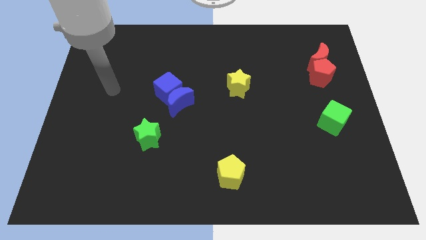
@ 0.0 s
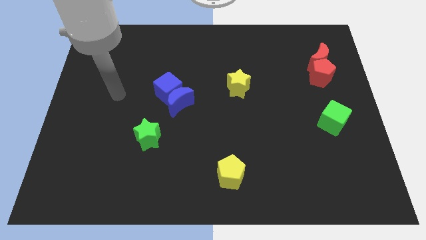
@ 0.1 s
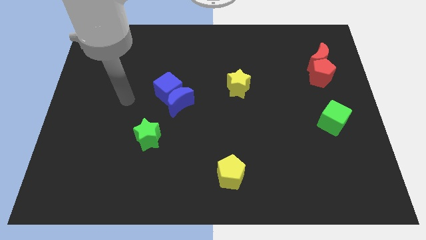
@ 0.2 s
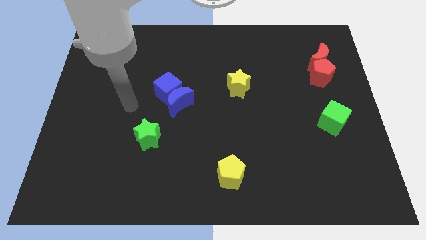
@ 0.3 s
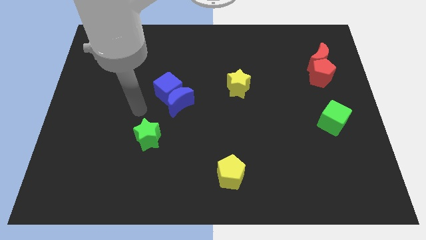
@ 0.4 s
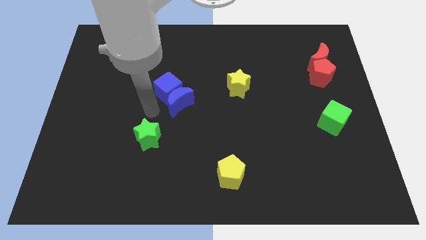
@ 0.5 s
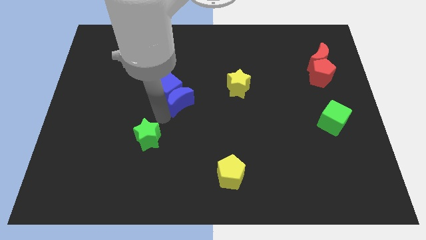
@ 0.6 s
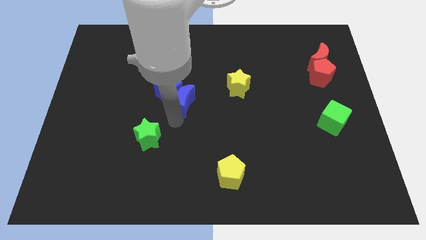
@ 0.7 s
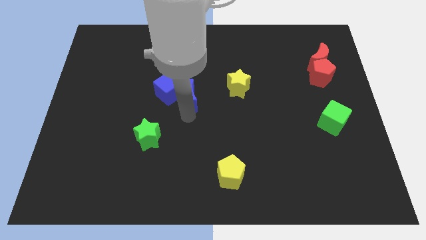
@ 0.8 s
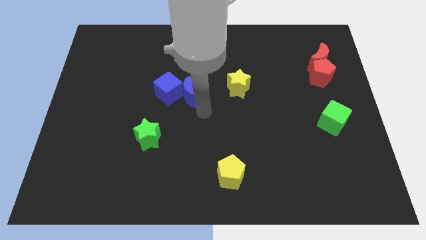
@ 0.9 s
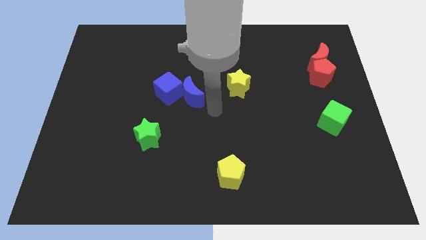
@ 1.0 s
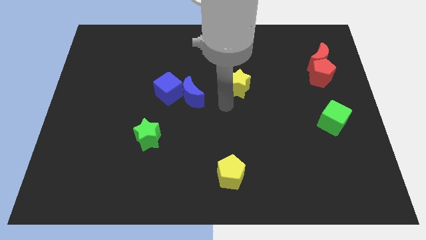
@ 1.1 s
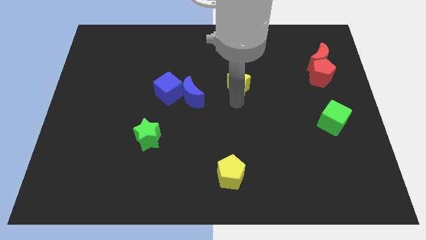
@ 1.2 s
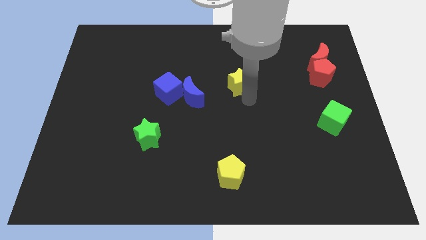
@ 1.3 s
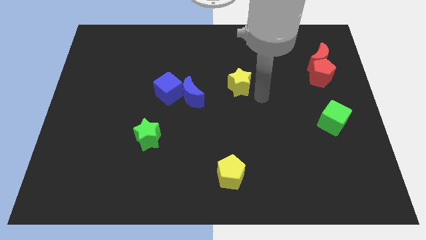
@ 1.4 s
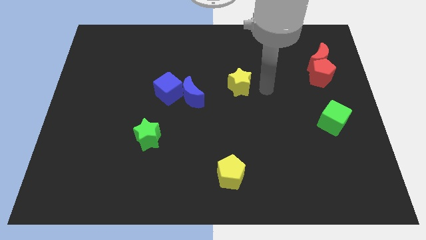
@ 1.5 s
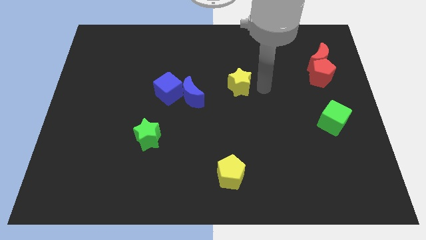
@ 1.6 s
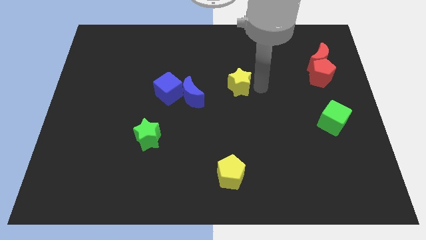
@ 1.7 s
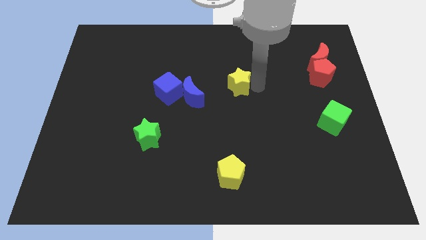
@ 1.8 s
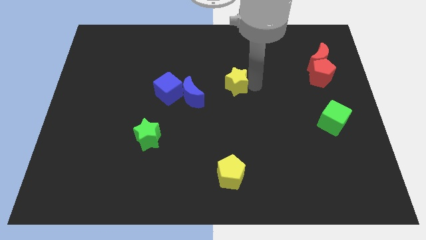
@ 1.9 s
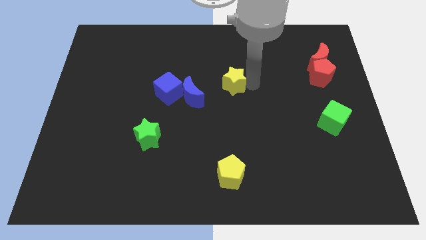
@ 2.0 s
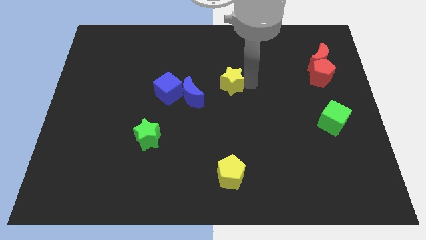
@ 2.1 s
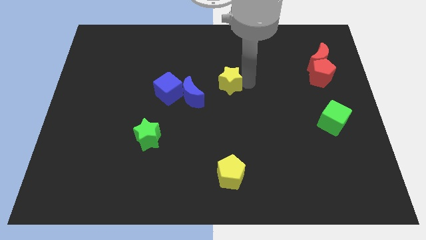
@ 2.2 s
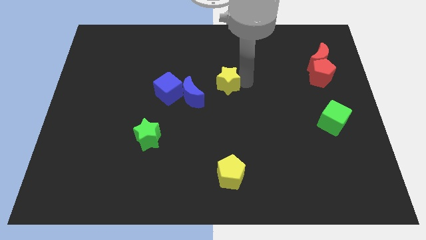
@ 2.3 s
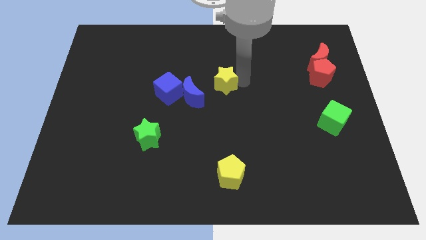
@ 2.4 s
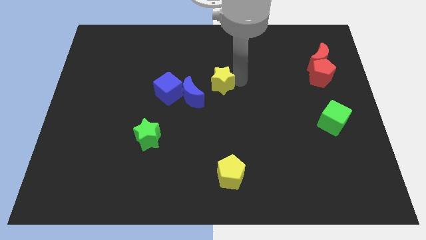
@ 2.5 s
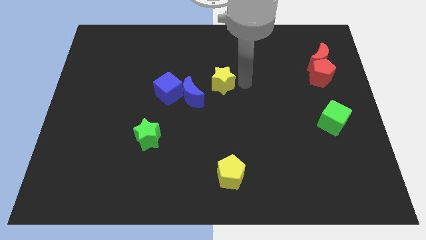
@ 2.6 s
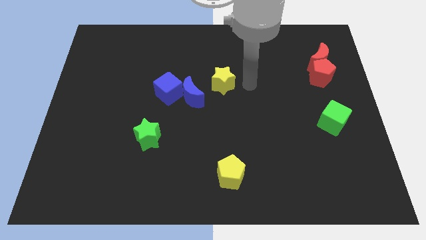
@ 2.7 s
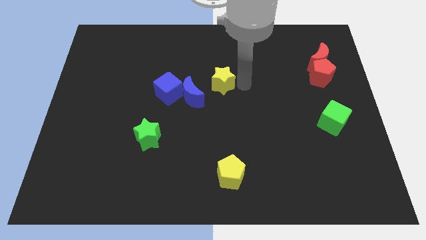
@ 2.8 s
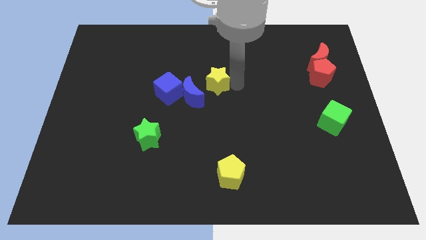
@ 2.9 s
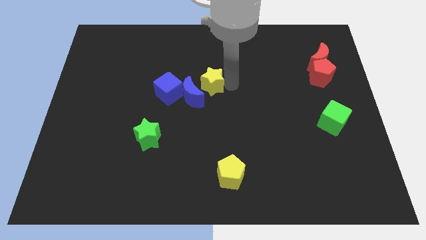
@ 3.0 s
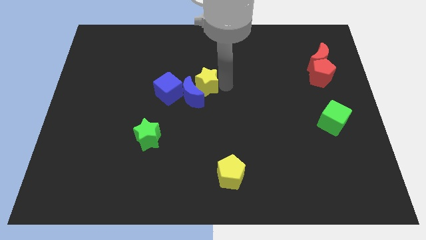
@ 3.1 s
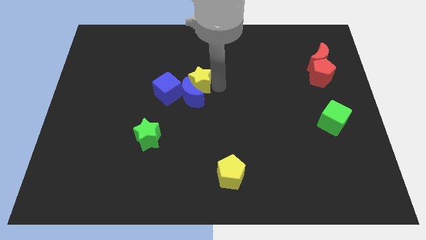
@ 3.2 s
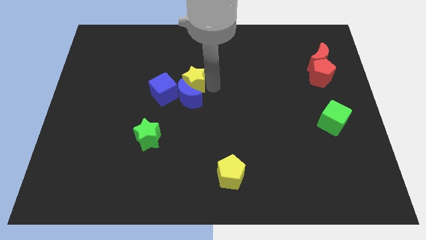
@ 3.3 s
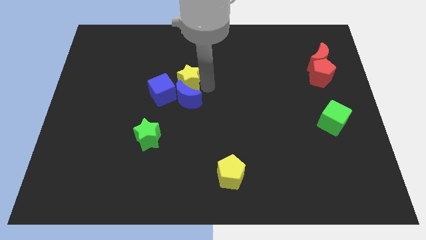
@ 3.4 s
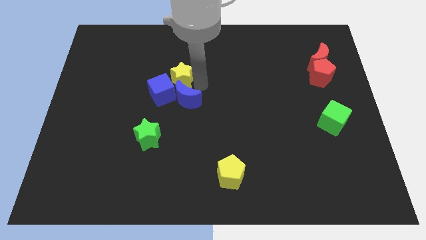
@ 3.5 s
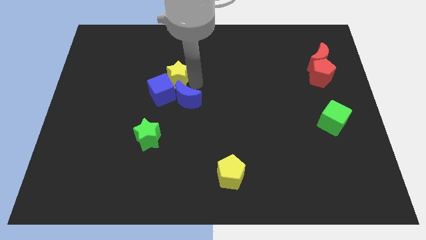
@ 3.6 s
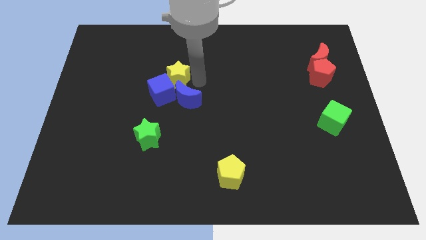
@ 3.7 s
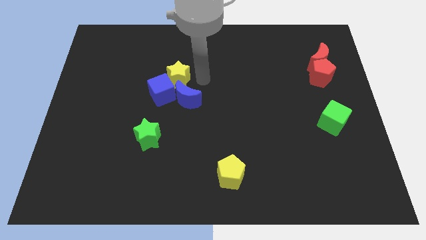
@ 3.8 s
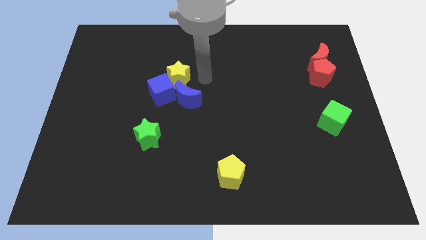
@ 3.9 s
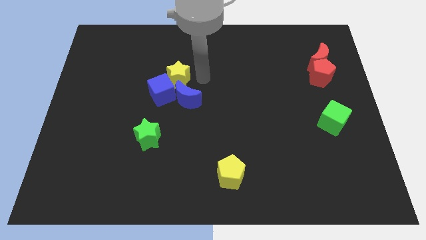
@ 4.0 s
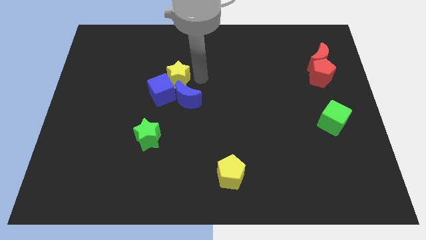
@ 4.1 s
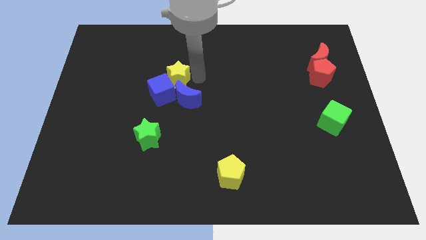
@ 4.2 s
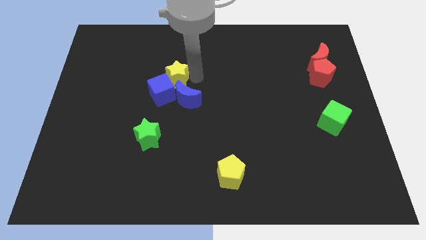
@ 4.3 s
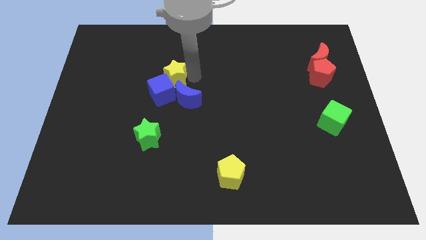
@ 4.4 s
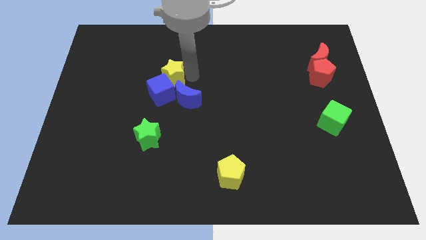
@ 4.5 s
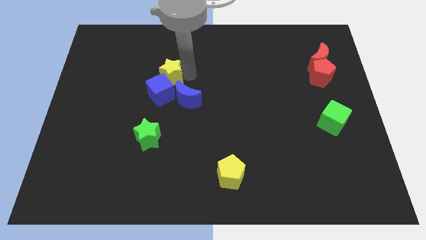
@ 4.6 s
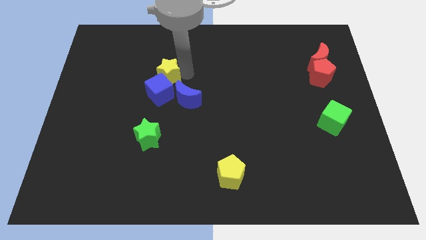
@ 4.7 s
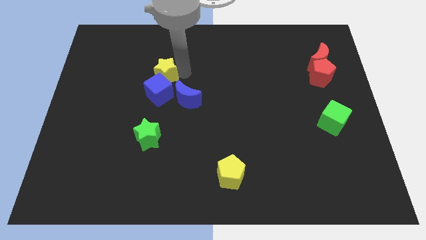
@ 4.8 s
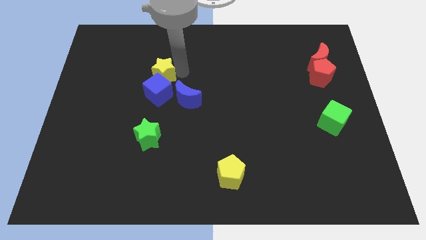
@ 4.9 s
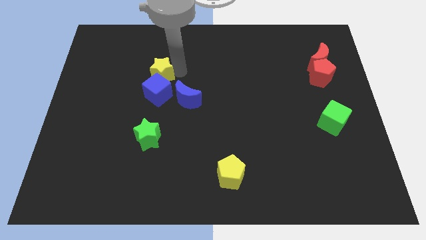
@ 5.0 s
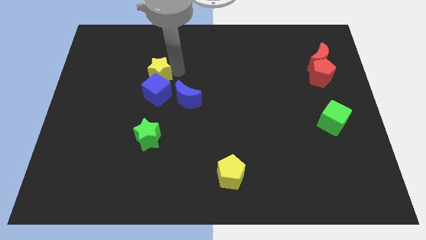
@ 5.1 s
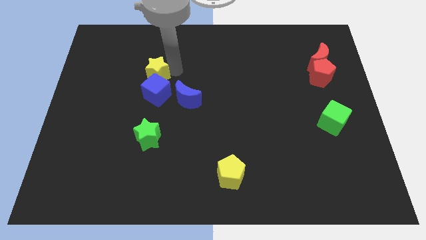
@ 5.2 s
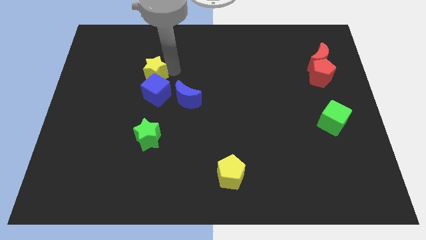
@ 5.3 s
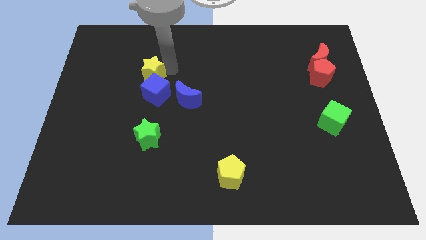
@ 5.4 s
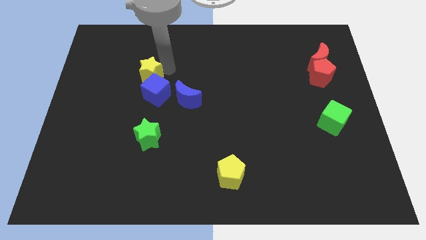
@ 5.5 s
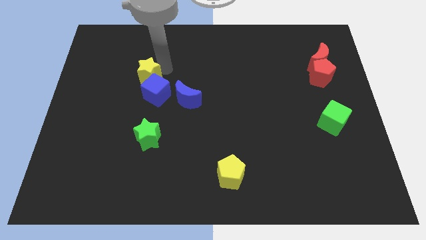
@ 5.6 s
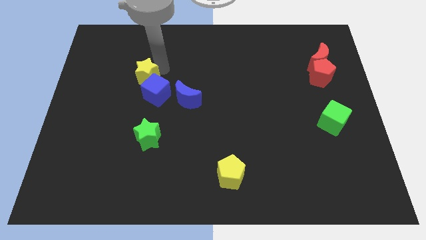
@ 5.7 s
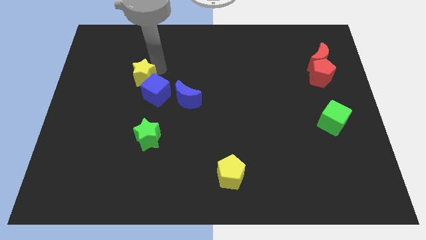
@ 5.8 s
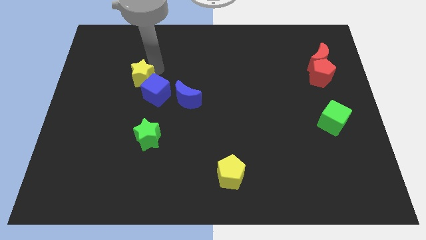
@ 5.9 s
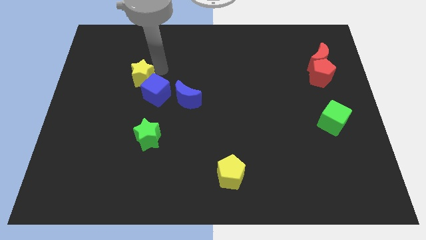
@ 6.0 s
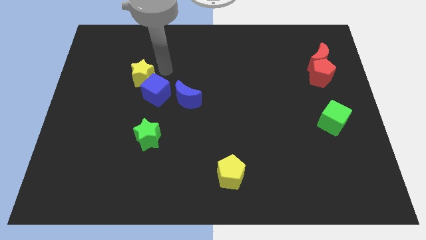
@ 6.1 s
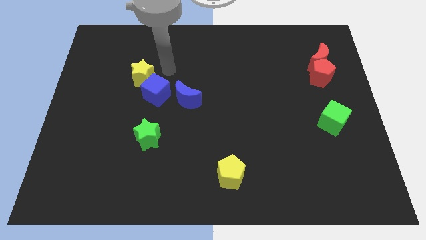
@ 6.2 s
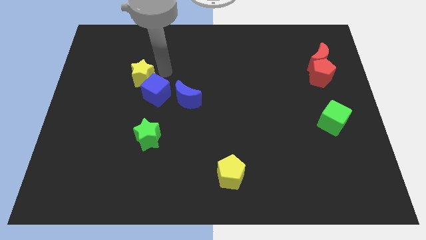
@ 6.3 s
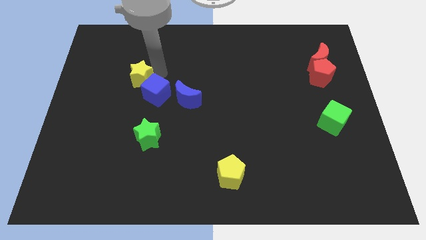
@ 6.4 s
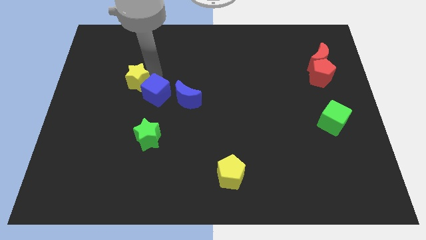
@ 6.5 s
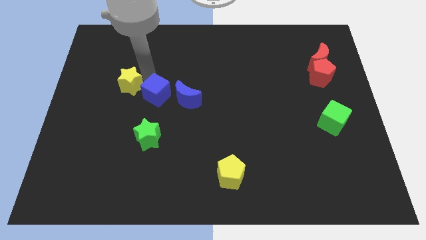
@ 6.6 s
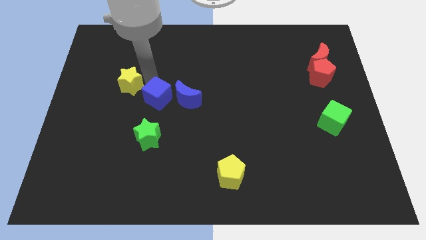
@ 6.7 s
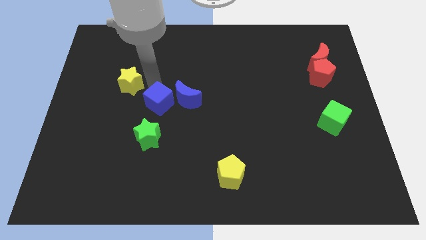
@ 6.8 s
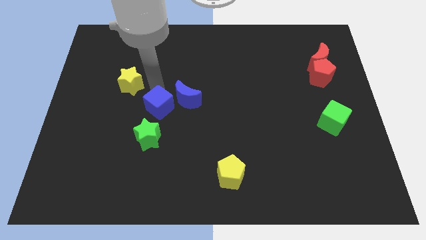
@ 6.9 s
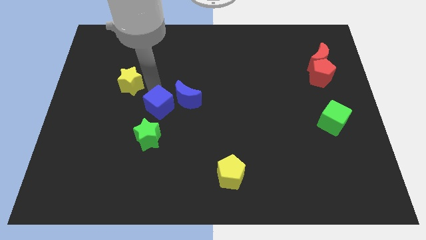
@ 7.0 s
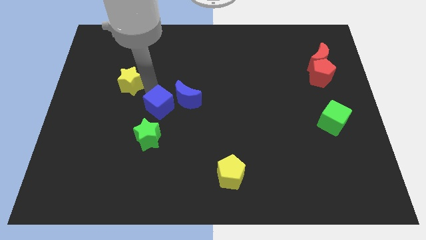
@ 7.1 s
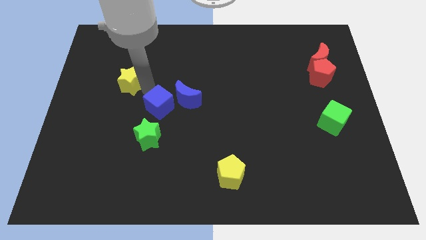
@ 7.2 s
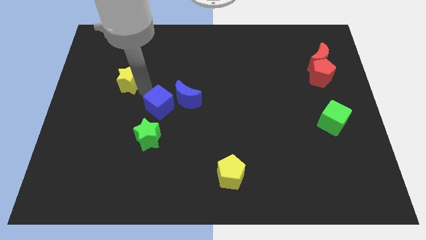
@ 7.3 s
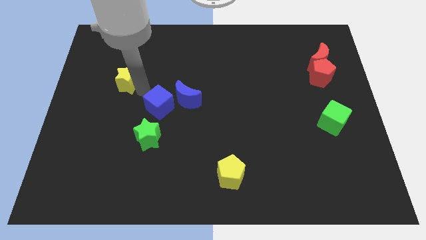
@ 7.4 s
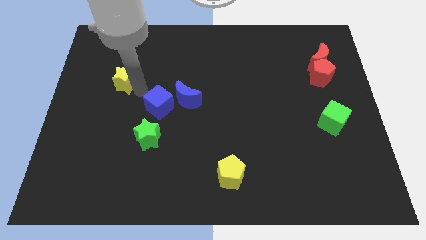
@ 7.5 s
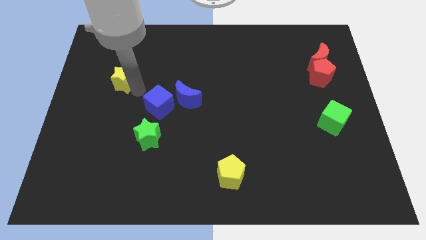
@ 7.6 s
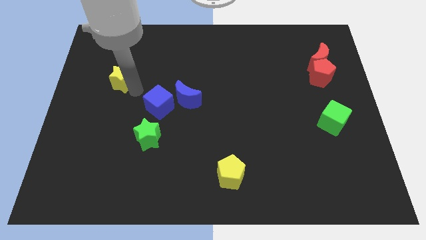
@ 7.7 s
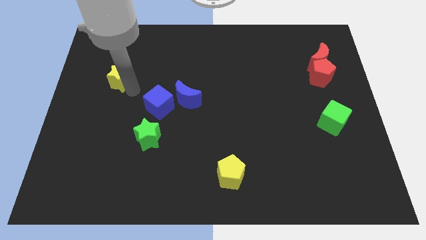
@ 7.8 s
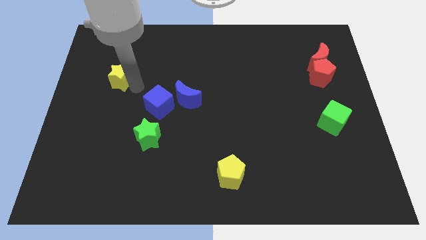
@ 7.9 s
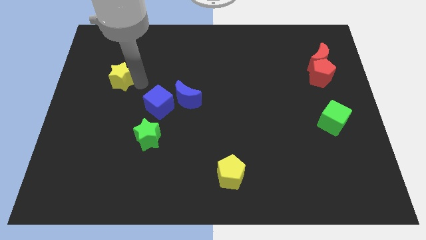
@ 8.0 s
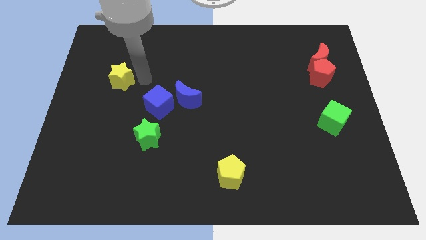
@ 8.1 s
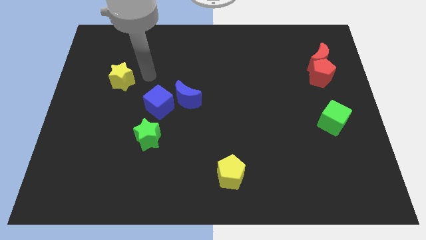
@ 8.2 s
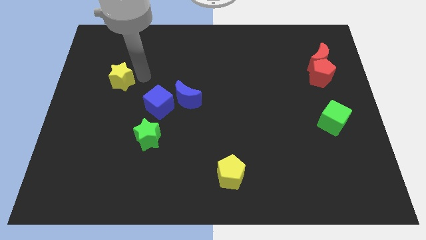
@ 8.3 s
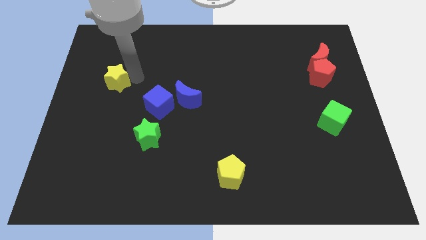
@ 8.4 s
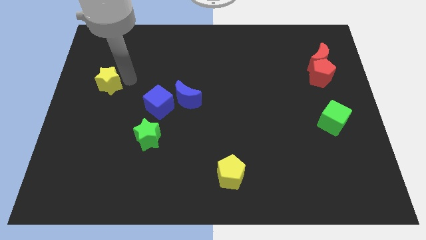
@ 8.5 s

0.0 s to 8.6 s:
move the yellow star to the left side
